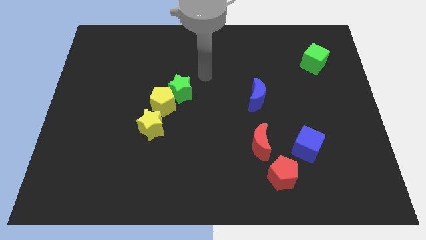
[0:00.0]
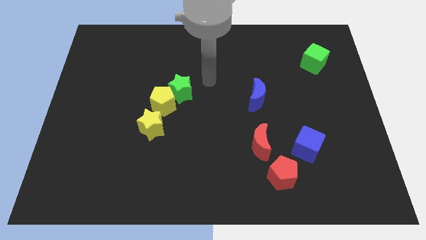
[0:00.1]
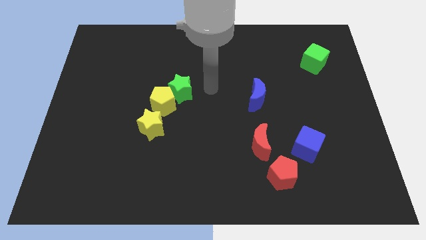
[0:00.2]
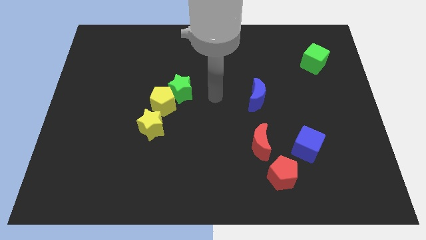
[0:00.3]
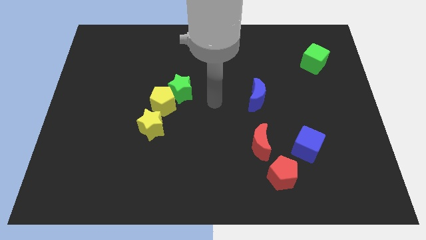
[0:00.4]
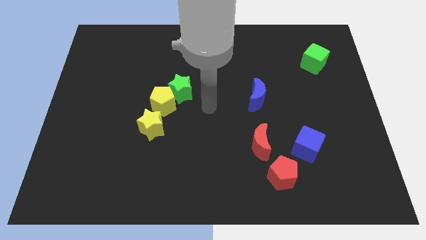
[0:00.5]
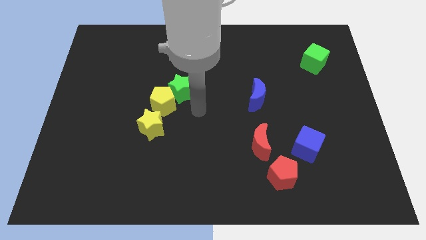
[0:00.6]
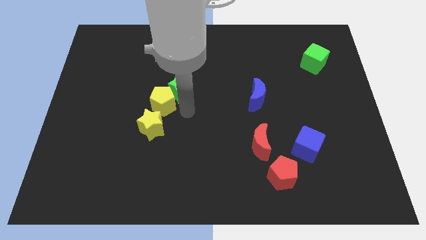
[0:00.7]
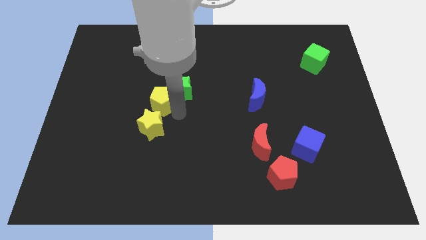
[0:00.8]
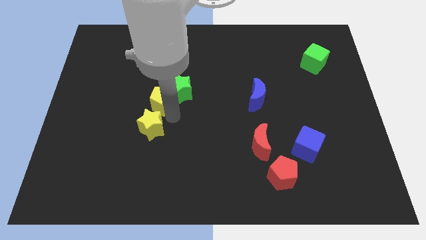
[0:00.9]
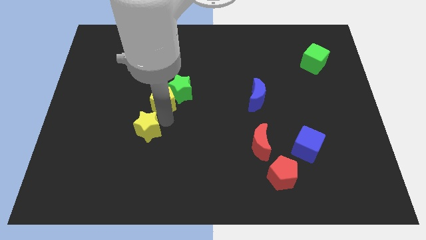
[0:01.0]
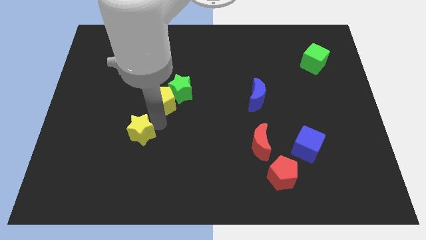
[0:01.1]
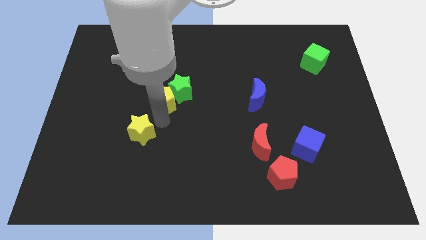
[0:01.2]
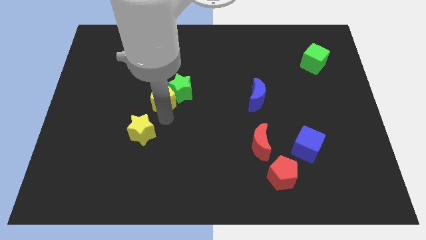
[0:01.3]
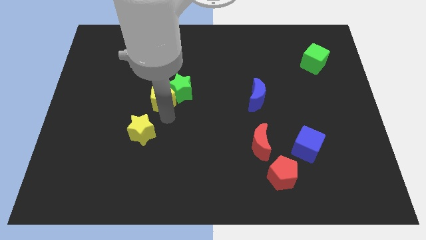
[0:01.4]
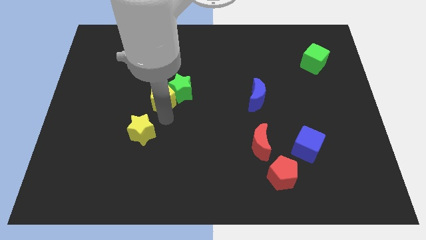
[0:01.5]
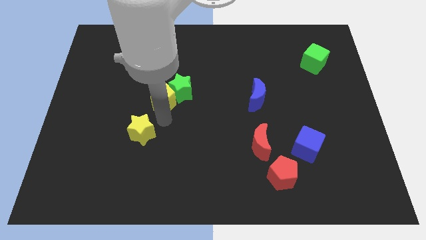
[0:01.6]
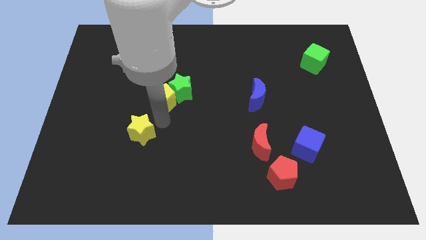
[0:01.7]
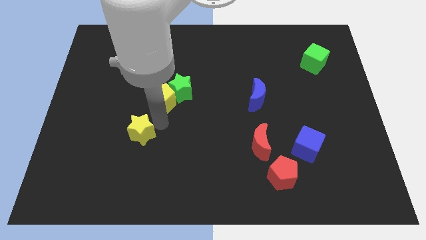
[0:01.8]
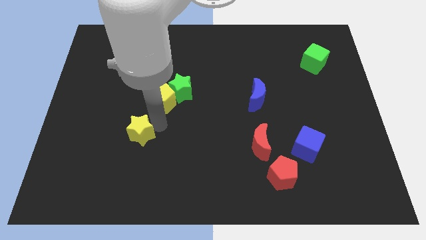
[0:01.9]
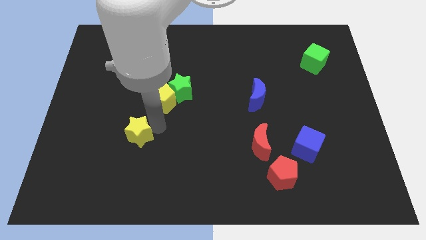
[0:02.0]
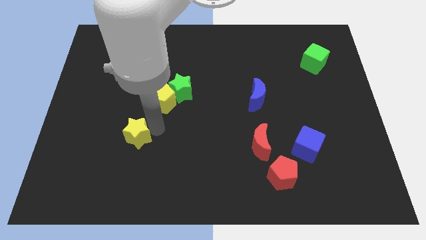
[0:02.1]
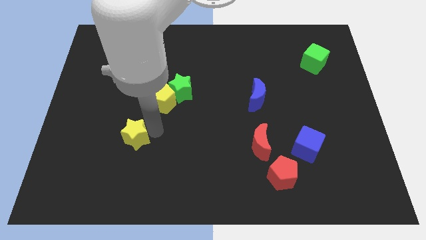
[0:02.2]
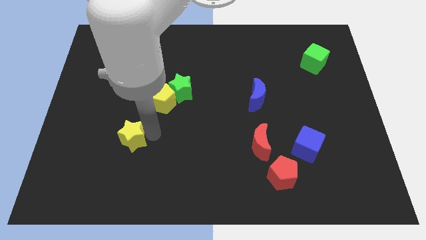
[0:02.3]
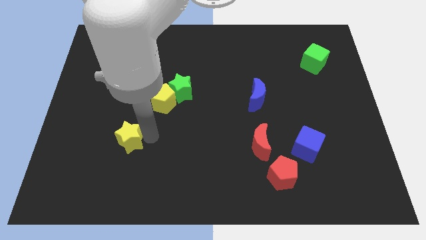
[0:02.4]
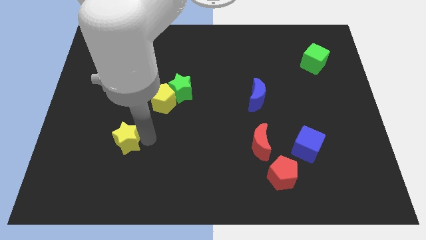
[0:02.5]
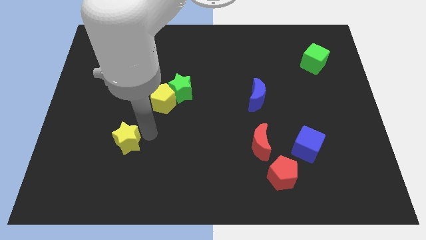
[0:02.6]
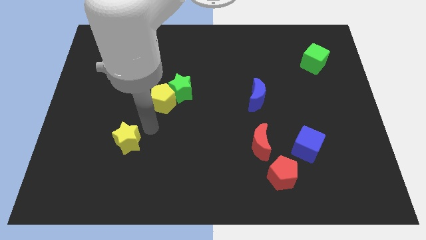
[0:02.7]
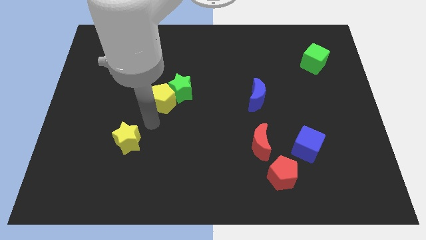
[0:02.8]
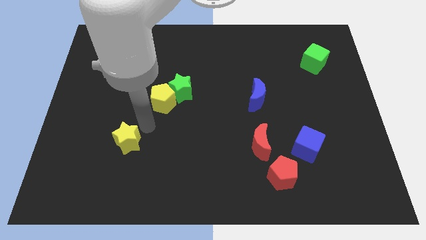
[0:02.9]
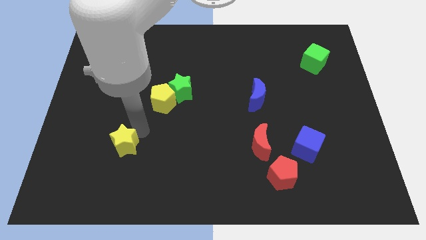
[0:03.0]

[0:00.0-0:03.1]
move the yellow star somewhat down and left diagonally

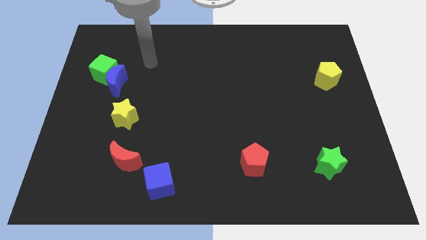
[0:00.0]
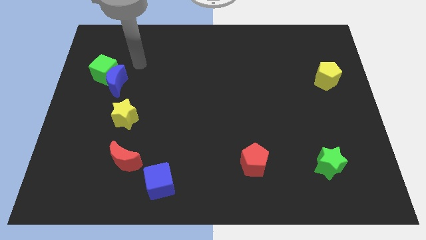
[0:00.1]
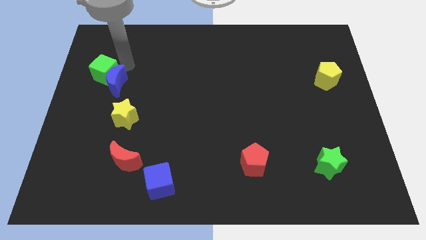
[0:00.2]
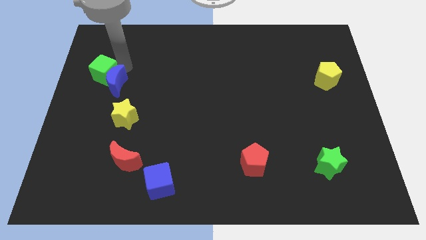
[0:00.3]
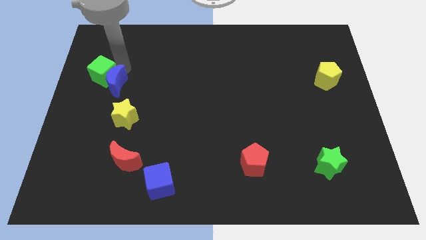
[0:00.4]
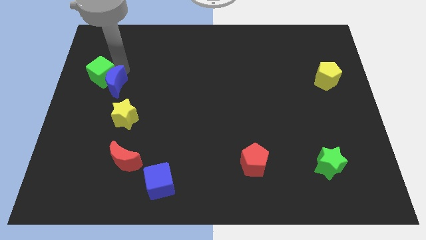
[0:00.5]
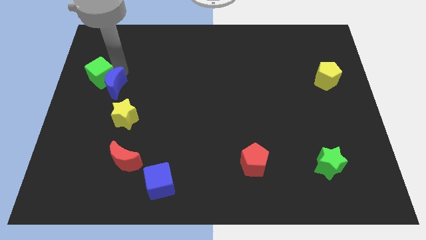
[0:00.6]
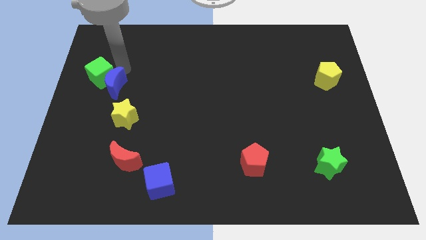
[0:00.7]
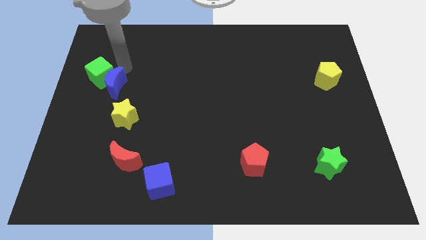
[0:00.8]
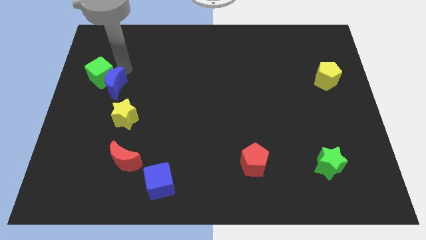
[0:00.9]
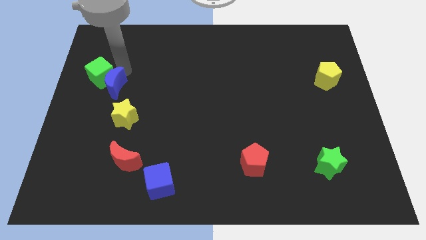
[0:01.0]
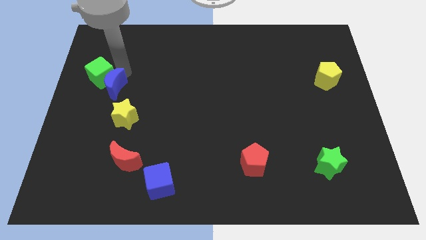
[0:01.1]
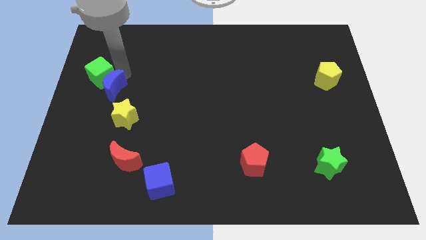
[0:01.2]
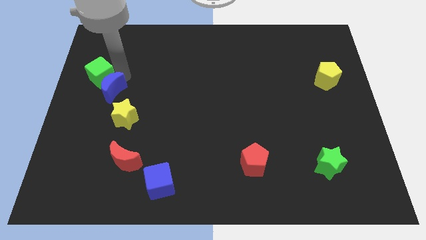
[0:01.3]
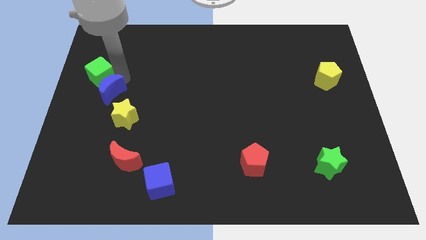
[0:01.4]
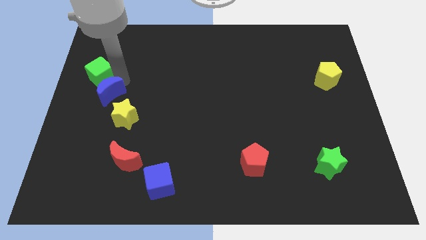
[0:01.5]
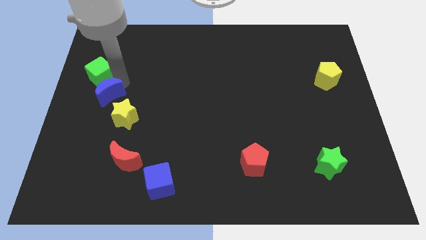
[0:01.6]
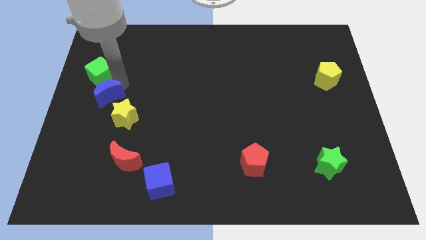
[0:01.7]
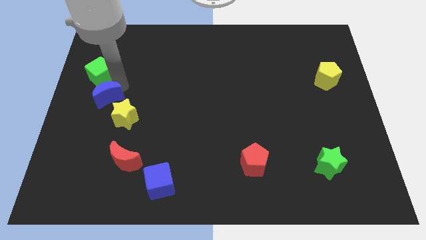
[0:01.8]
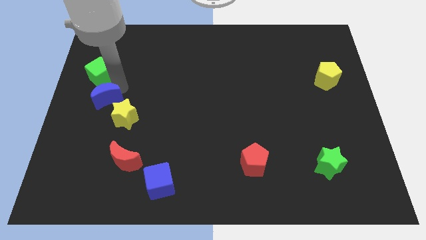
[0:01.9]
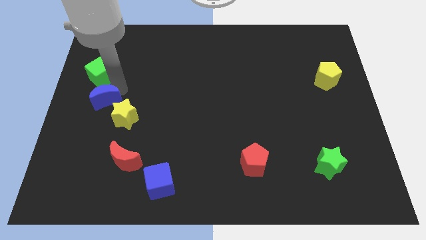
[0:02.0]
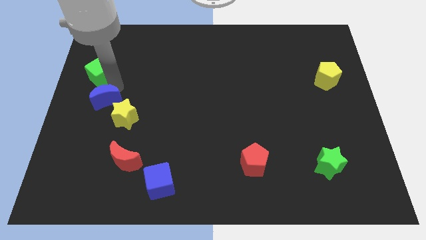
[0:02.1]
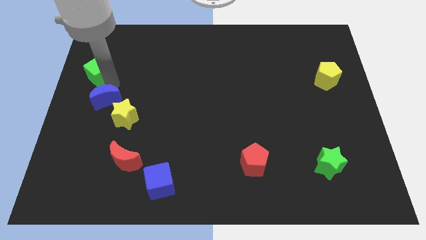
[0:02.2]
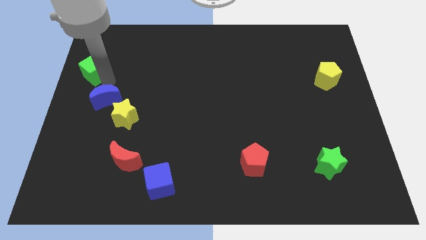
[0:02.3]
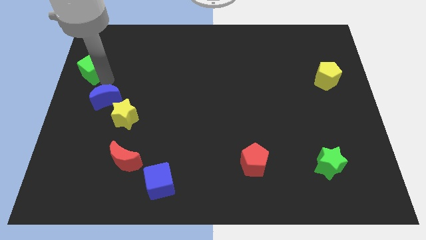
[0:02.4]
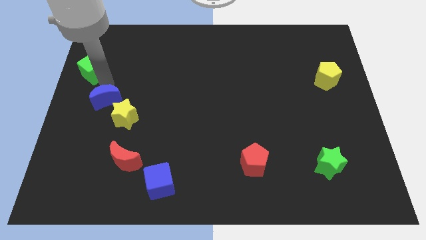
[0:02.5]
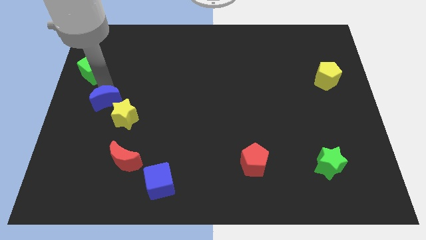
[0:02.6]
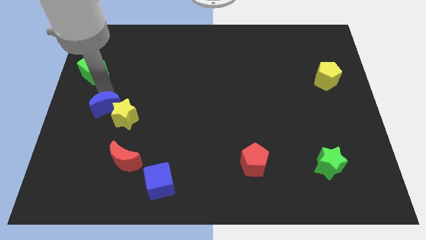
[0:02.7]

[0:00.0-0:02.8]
slide the blue moon slightly down

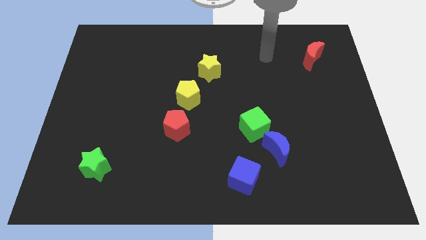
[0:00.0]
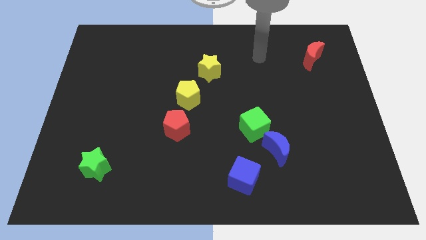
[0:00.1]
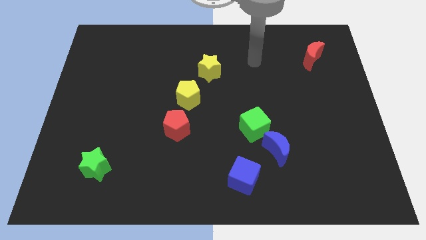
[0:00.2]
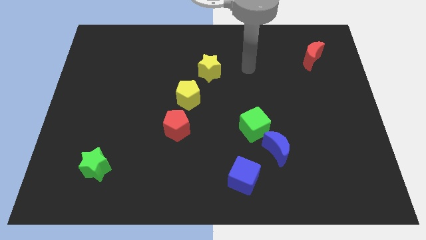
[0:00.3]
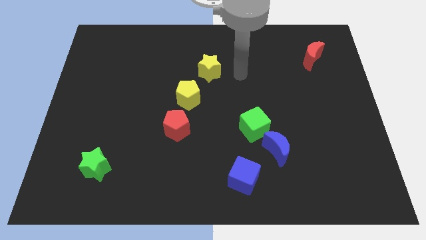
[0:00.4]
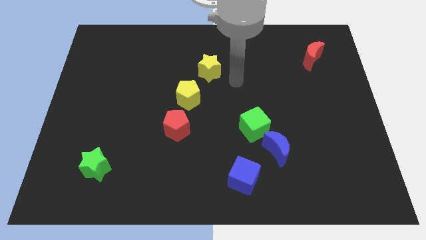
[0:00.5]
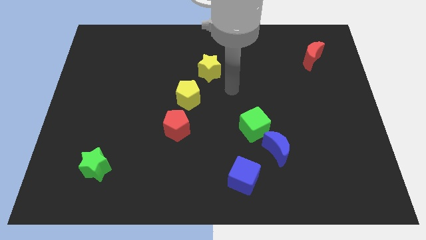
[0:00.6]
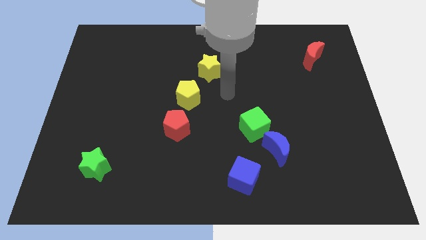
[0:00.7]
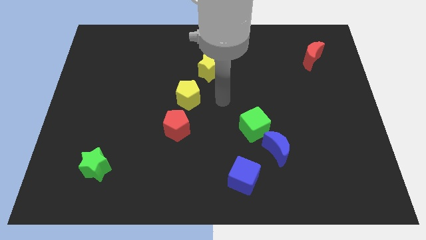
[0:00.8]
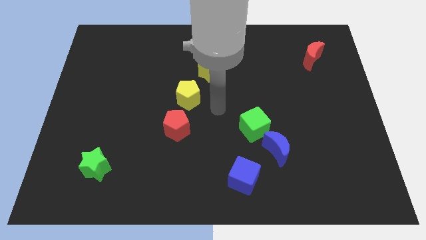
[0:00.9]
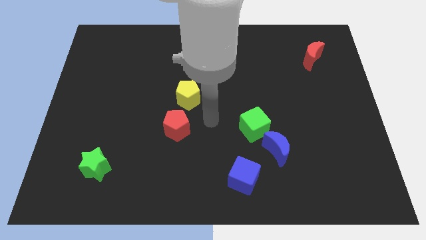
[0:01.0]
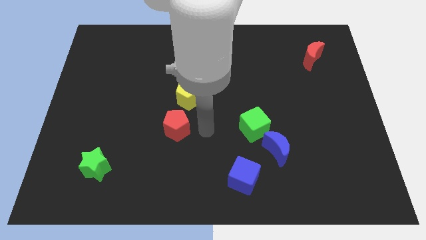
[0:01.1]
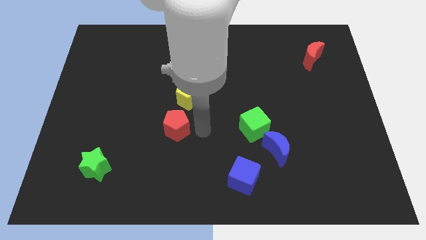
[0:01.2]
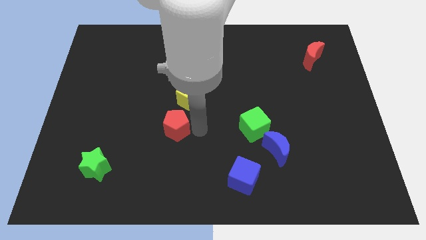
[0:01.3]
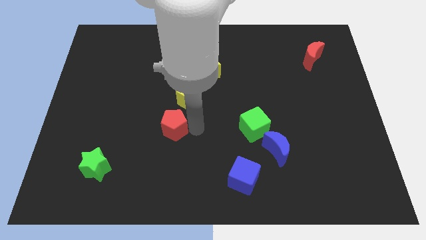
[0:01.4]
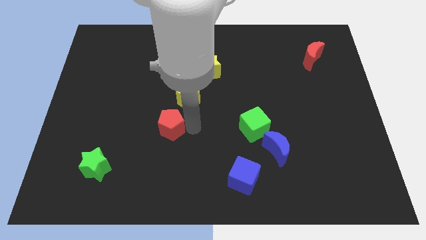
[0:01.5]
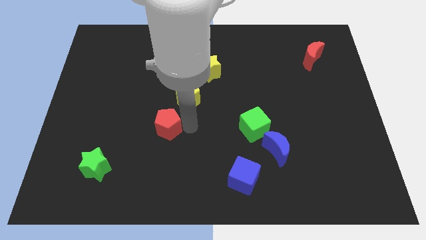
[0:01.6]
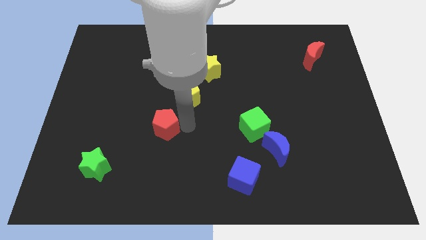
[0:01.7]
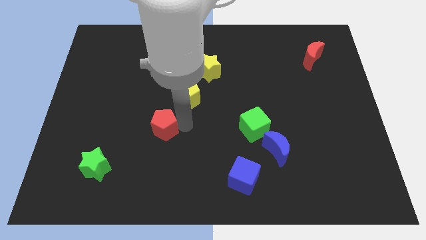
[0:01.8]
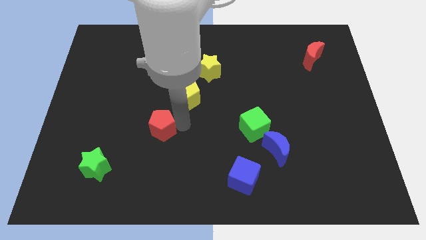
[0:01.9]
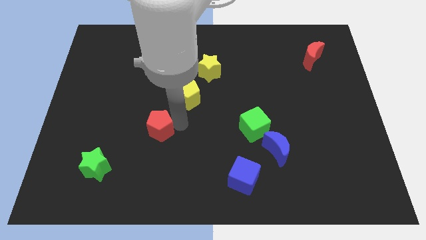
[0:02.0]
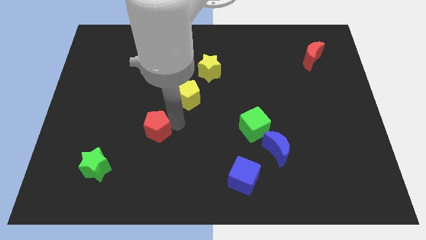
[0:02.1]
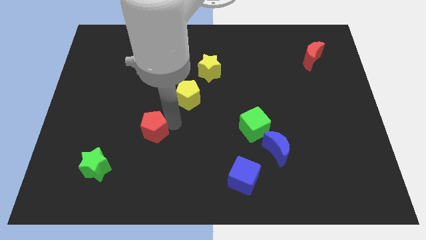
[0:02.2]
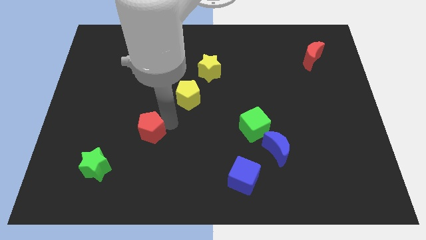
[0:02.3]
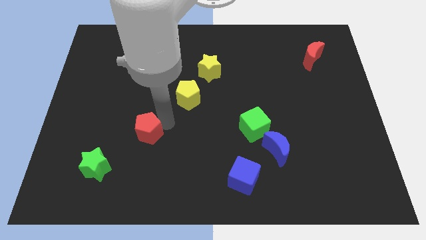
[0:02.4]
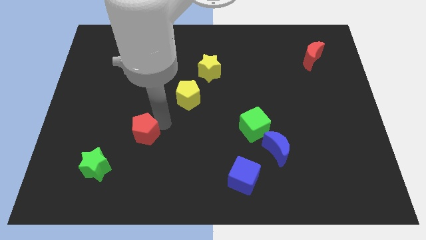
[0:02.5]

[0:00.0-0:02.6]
move the red pentagon left a little bit
